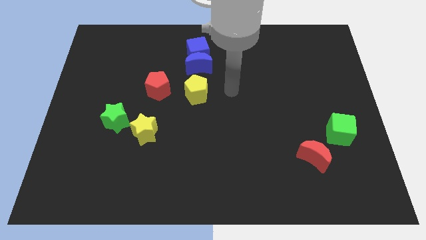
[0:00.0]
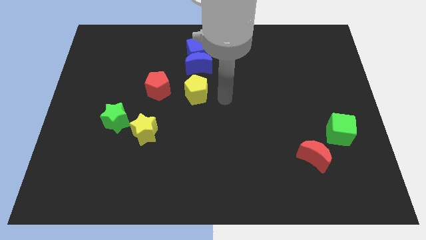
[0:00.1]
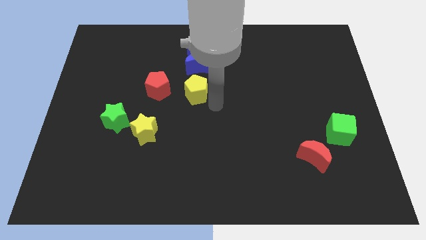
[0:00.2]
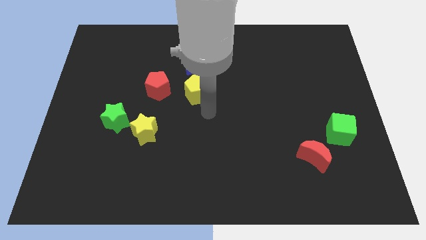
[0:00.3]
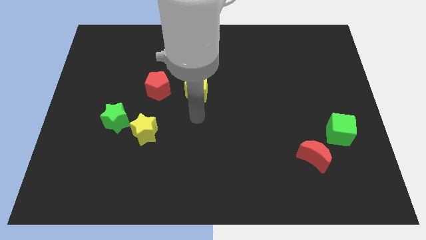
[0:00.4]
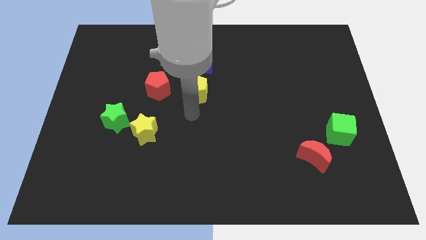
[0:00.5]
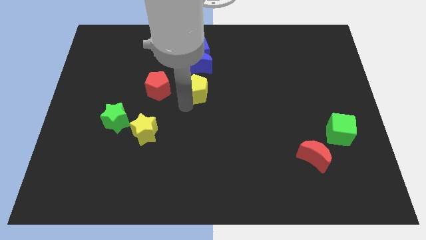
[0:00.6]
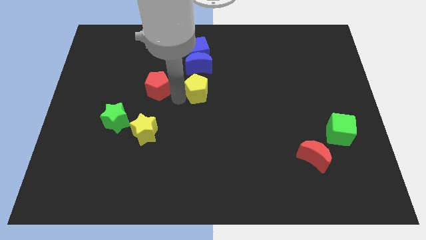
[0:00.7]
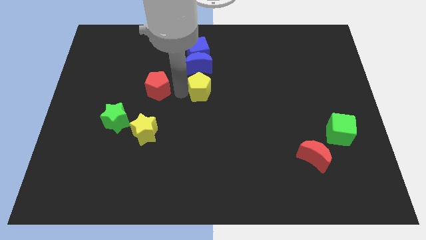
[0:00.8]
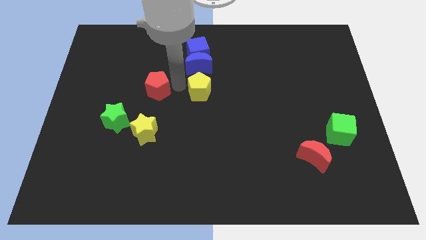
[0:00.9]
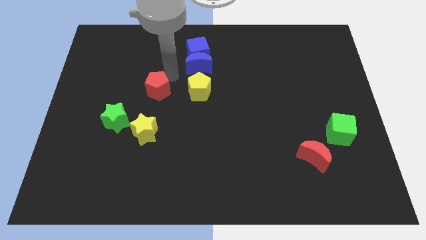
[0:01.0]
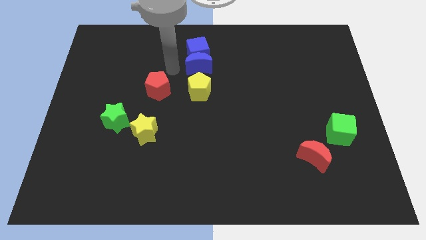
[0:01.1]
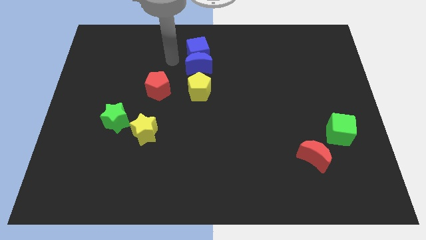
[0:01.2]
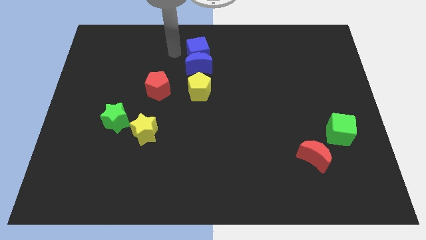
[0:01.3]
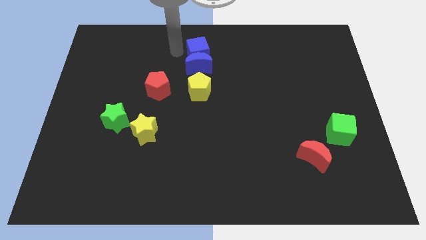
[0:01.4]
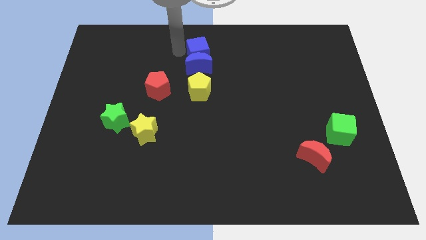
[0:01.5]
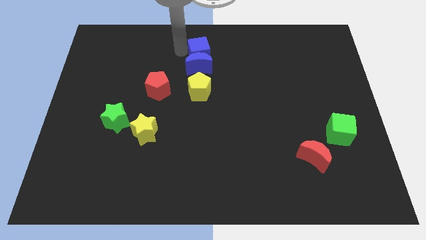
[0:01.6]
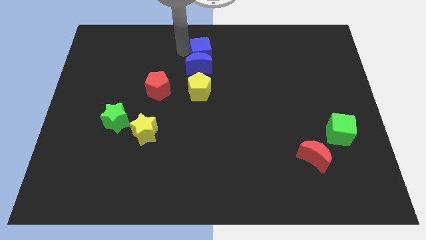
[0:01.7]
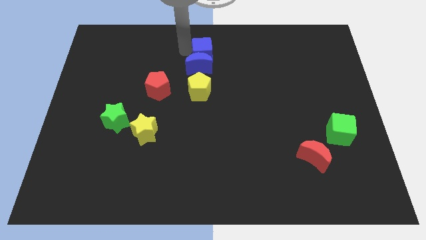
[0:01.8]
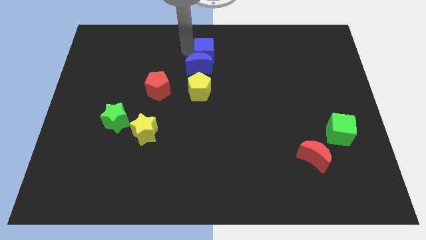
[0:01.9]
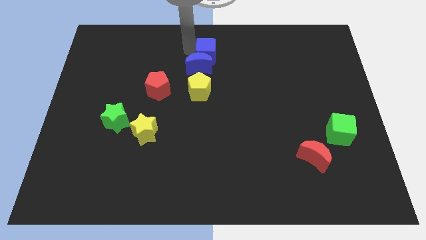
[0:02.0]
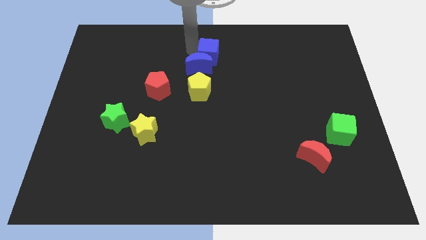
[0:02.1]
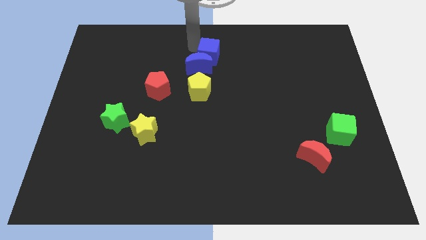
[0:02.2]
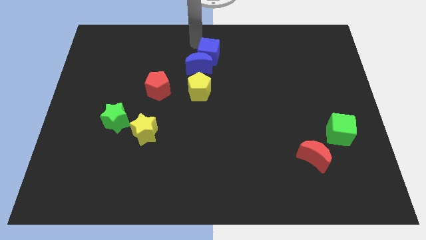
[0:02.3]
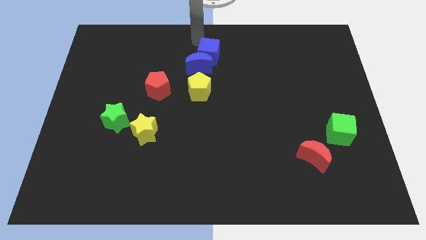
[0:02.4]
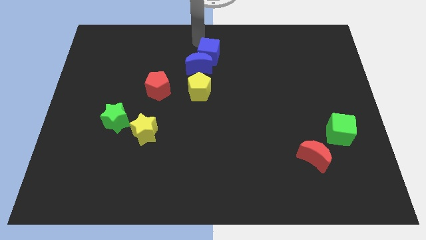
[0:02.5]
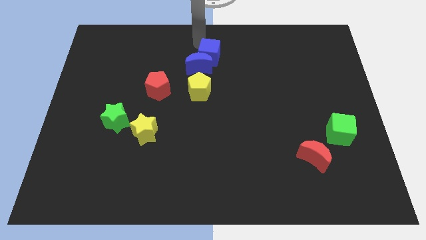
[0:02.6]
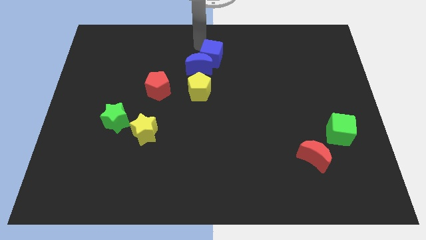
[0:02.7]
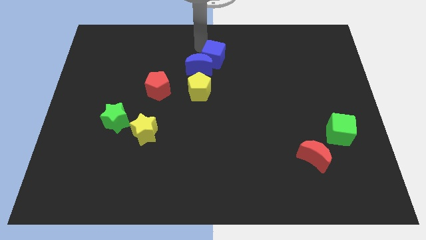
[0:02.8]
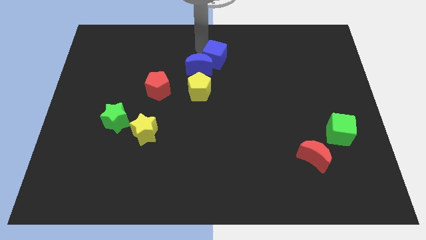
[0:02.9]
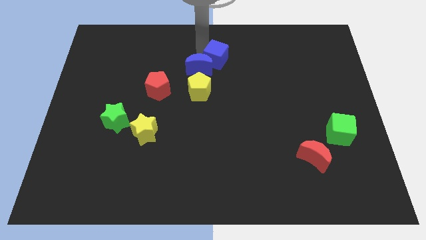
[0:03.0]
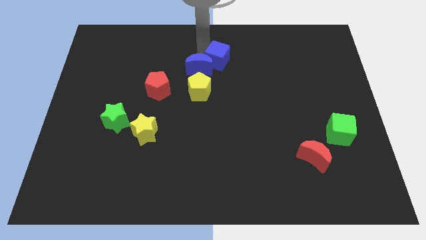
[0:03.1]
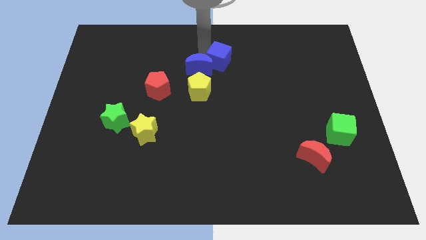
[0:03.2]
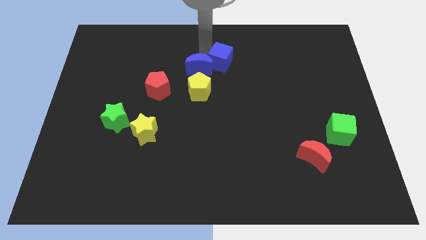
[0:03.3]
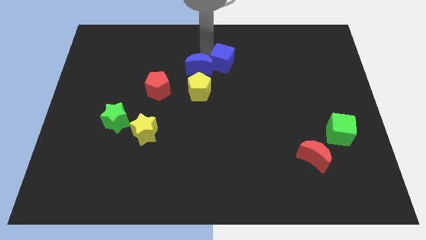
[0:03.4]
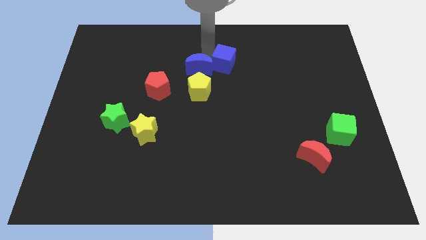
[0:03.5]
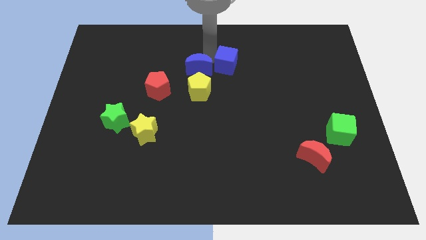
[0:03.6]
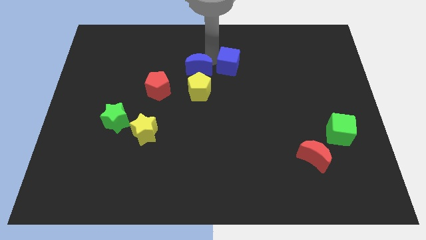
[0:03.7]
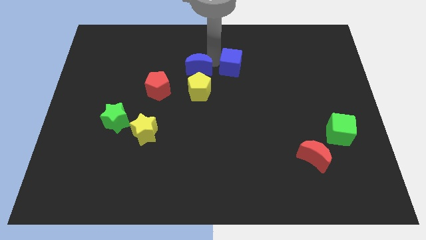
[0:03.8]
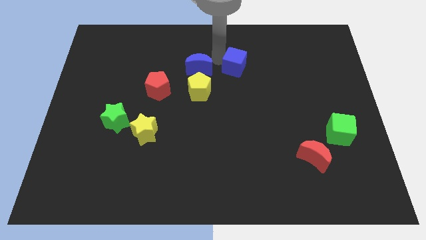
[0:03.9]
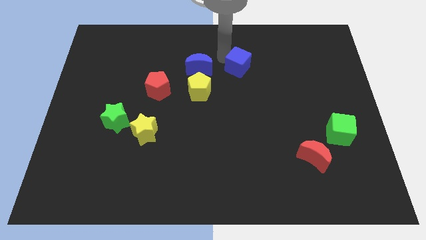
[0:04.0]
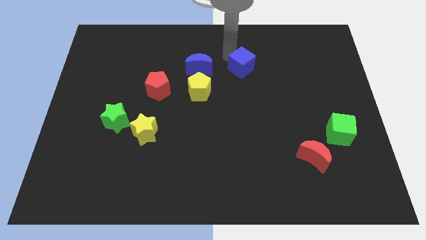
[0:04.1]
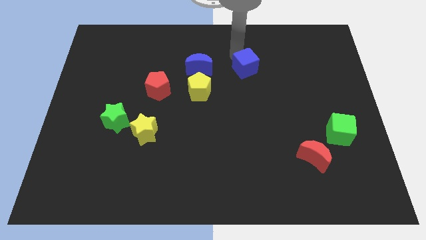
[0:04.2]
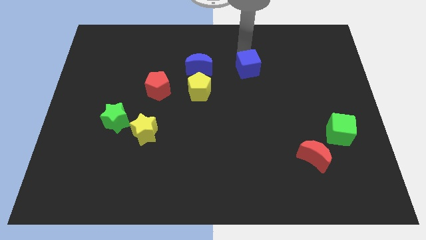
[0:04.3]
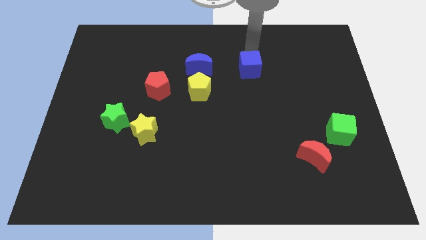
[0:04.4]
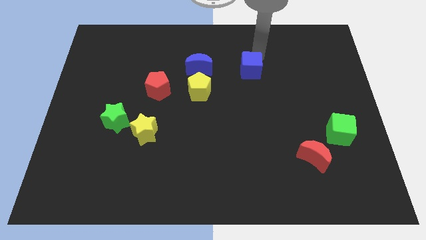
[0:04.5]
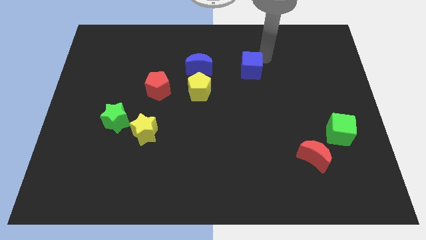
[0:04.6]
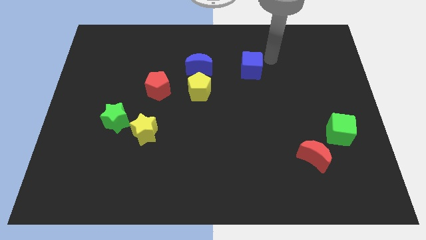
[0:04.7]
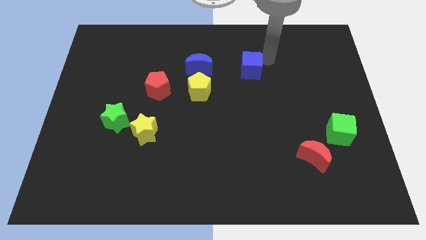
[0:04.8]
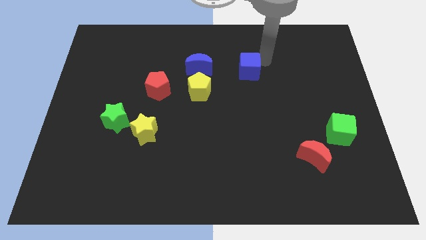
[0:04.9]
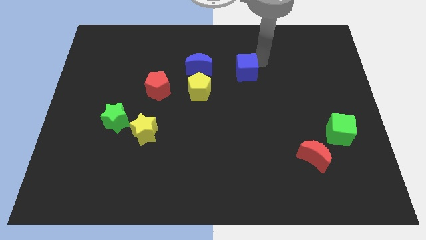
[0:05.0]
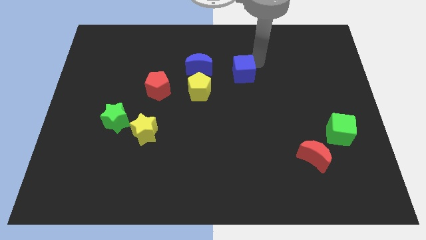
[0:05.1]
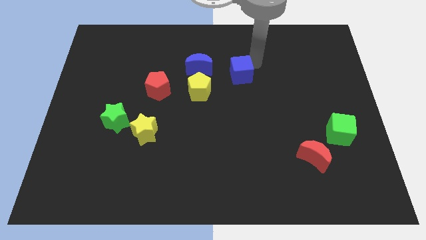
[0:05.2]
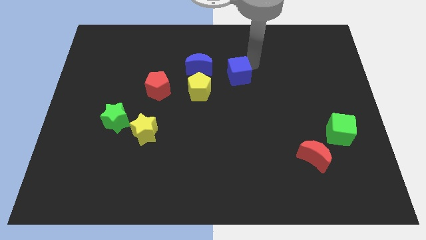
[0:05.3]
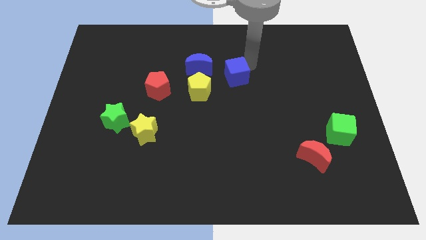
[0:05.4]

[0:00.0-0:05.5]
put the blue cube to the bottom right of the blue moon

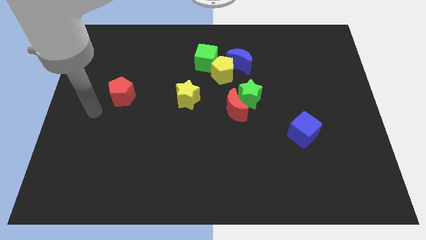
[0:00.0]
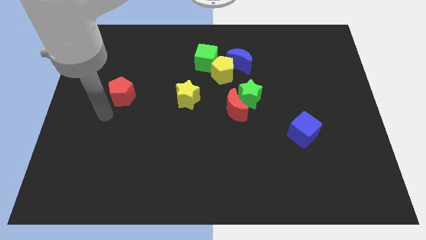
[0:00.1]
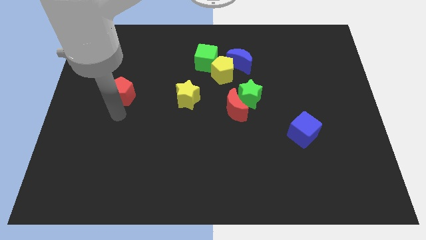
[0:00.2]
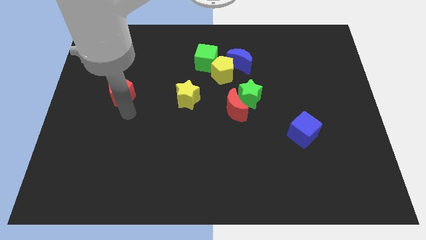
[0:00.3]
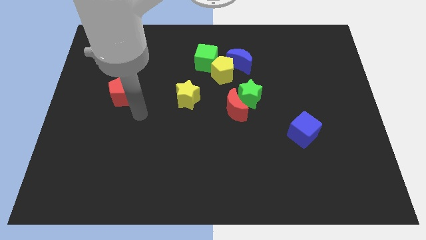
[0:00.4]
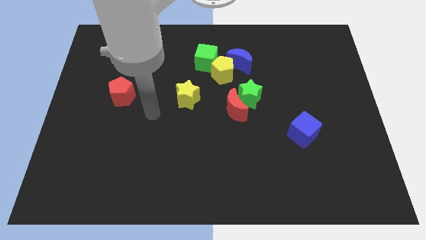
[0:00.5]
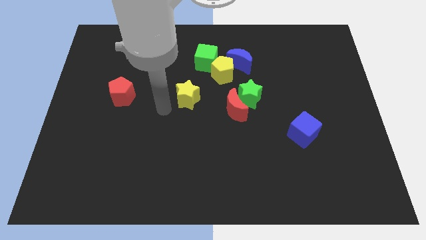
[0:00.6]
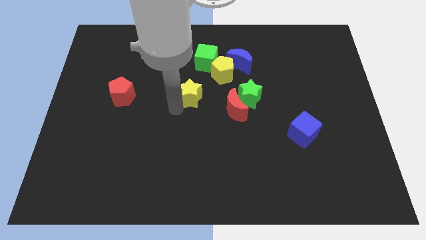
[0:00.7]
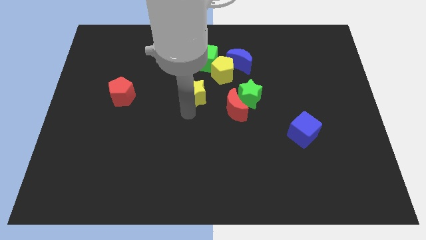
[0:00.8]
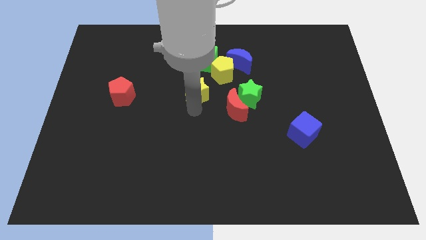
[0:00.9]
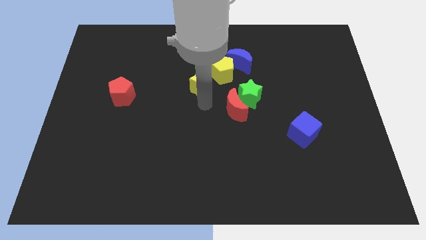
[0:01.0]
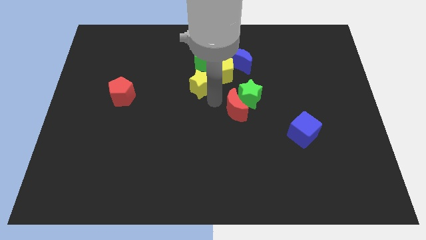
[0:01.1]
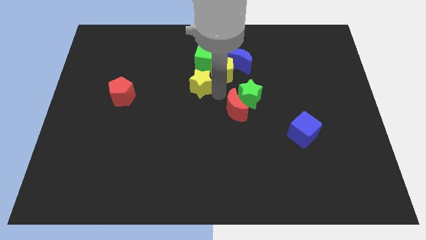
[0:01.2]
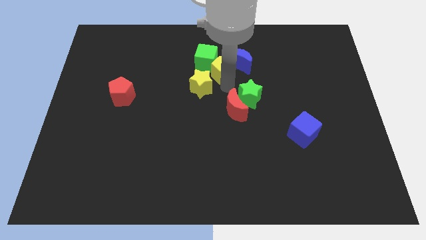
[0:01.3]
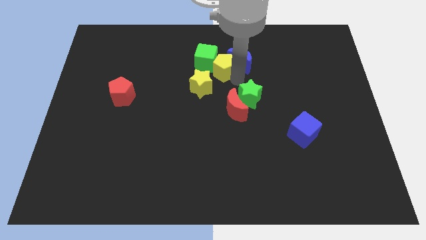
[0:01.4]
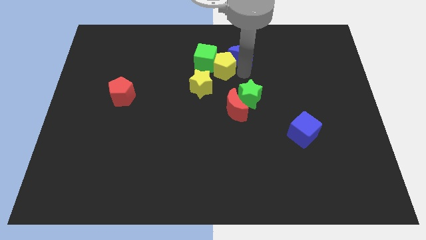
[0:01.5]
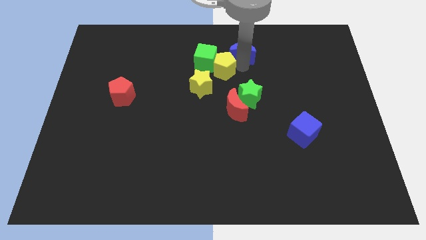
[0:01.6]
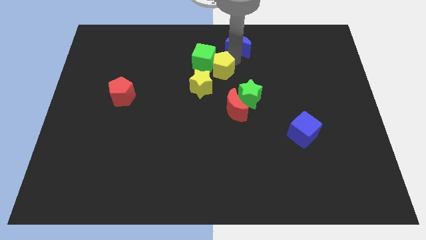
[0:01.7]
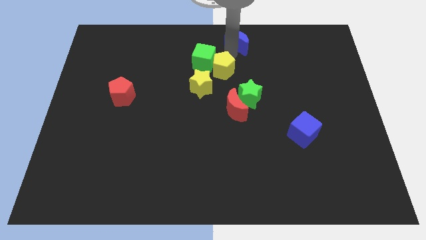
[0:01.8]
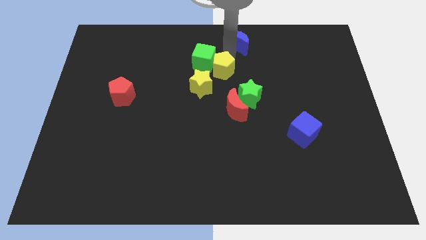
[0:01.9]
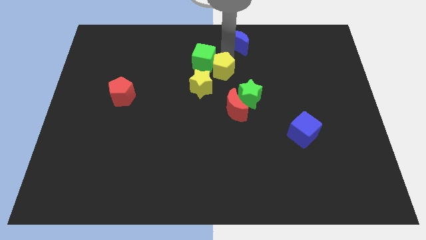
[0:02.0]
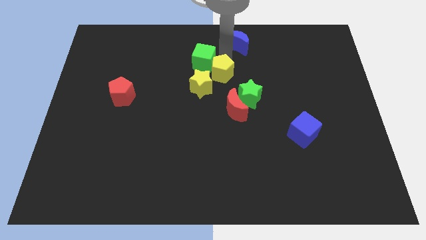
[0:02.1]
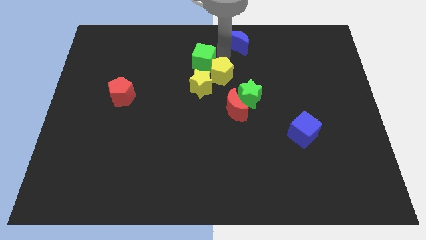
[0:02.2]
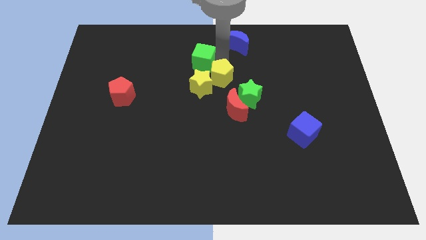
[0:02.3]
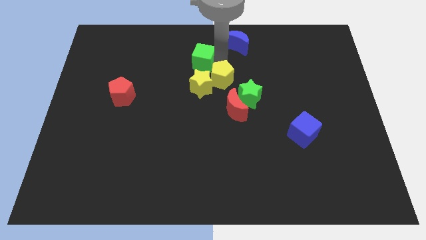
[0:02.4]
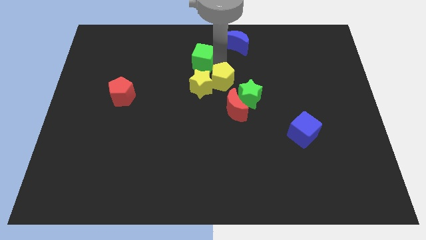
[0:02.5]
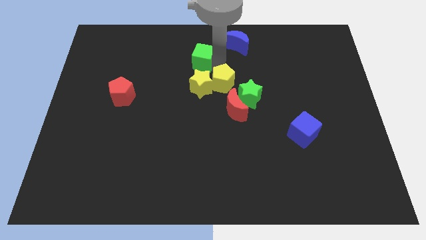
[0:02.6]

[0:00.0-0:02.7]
push the yellow pentagon to the bottom right of the yellow star
